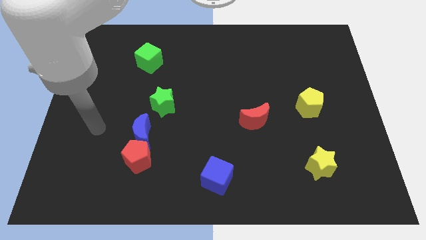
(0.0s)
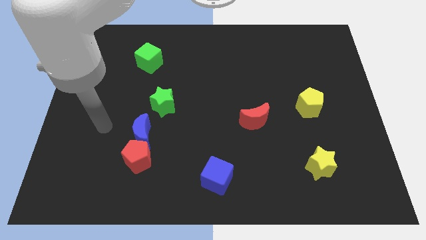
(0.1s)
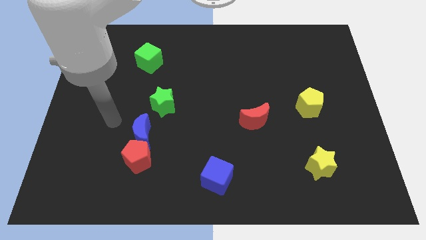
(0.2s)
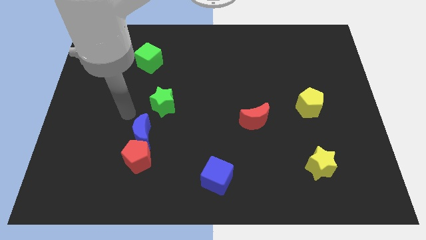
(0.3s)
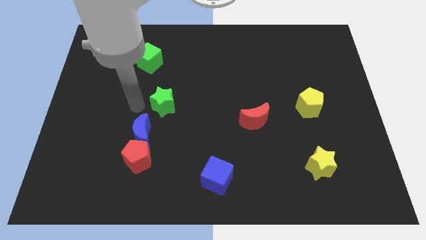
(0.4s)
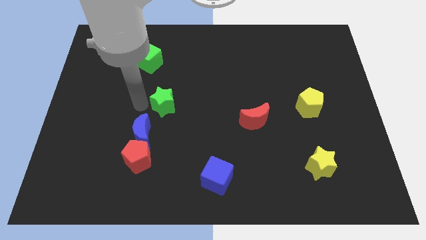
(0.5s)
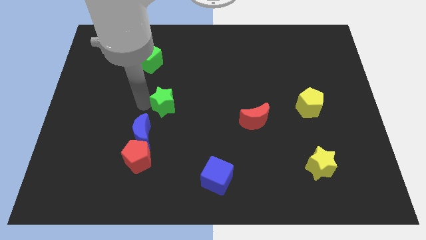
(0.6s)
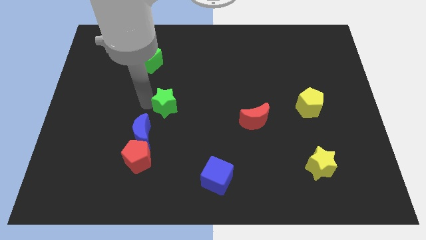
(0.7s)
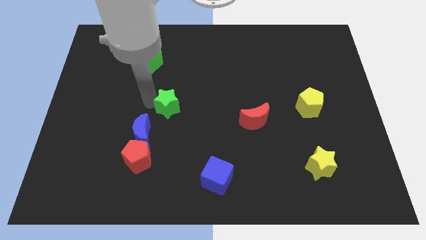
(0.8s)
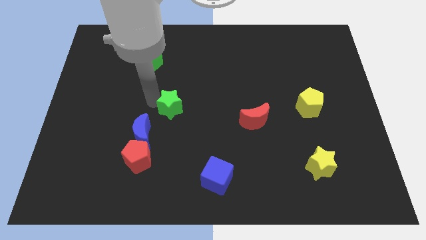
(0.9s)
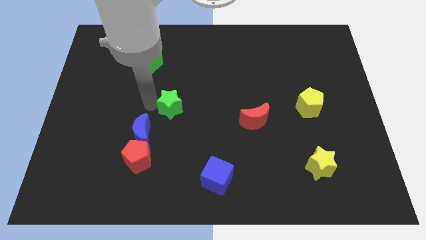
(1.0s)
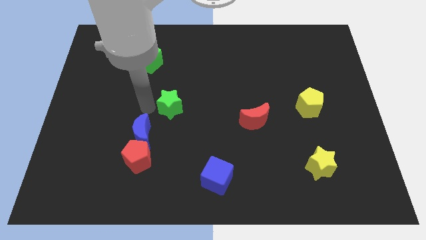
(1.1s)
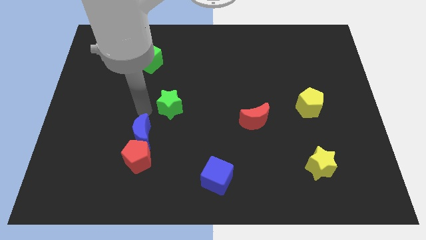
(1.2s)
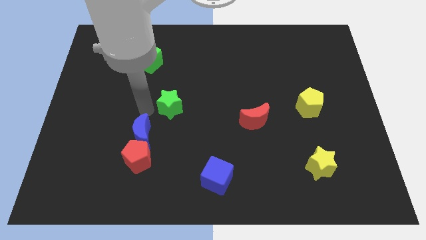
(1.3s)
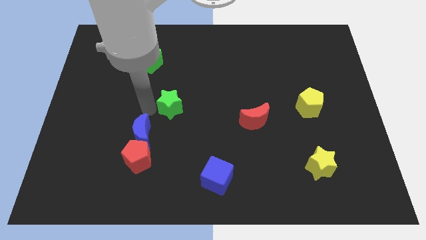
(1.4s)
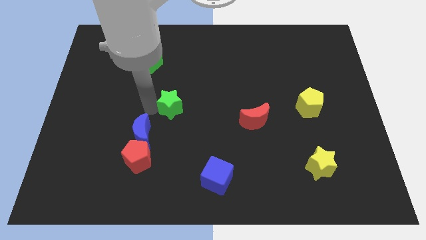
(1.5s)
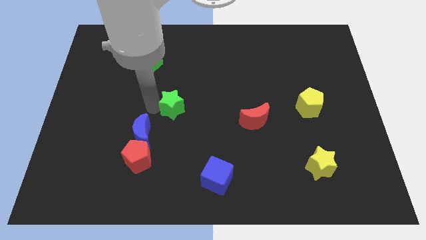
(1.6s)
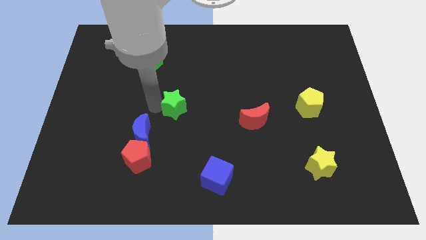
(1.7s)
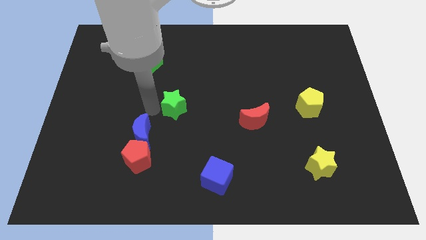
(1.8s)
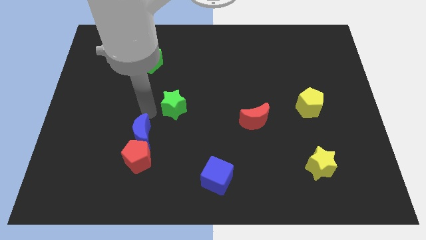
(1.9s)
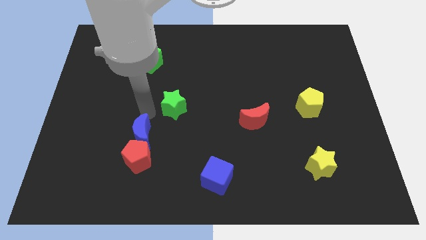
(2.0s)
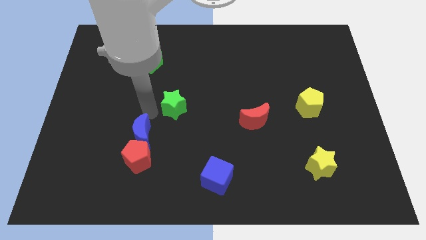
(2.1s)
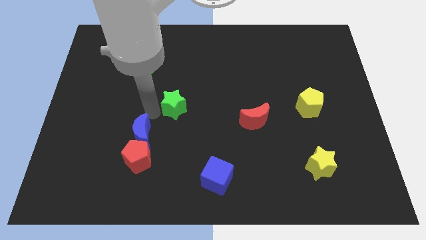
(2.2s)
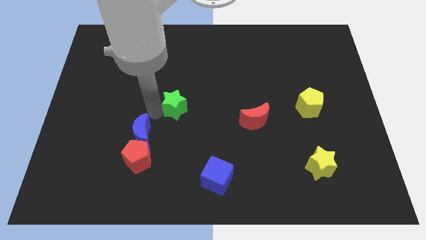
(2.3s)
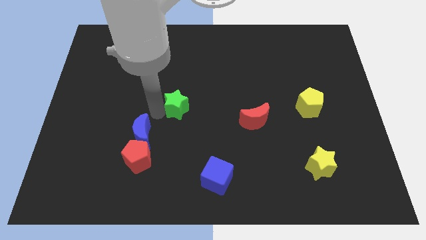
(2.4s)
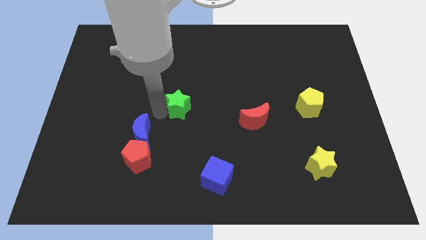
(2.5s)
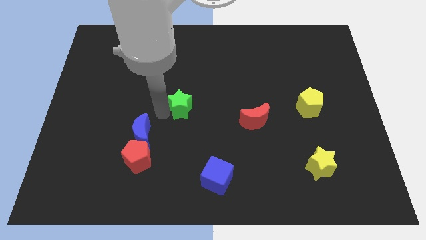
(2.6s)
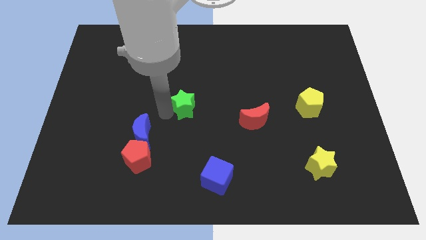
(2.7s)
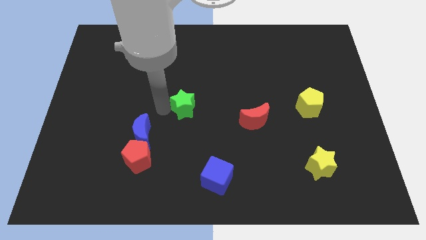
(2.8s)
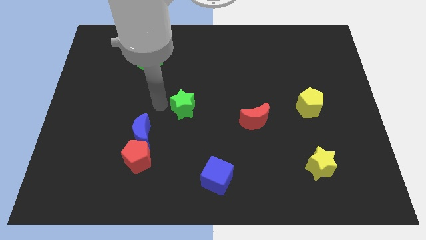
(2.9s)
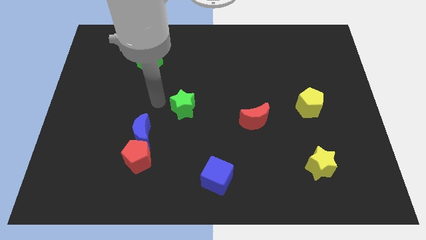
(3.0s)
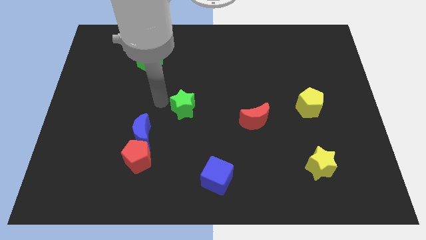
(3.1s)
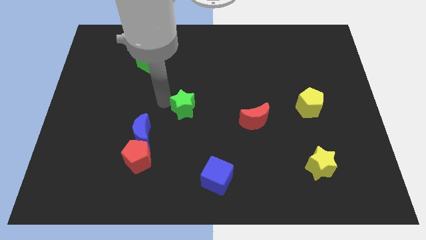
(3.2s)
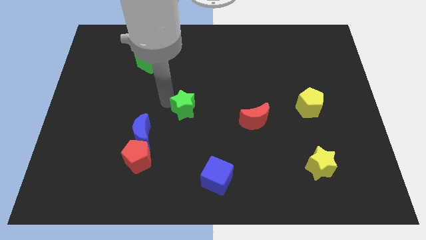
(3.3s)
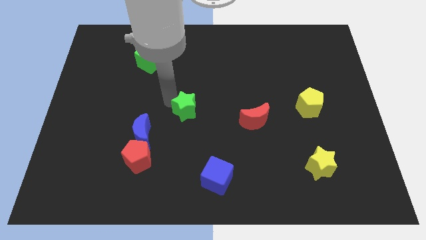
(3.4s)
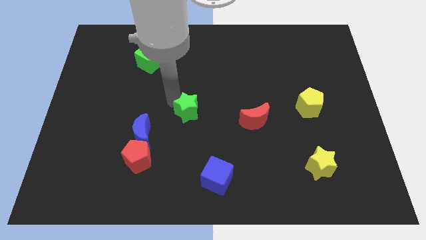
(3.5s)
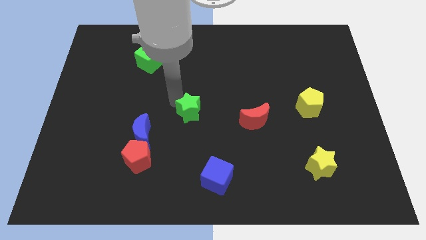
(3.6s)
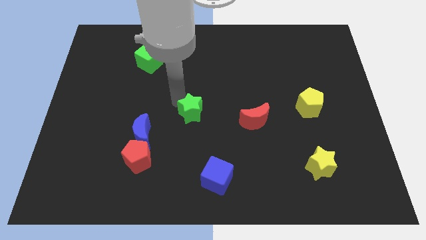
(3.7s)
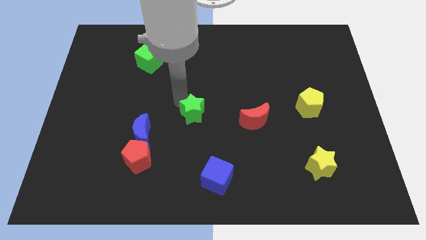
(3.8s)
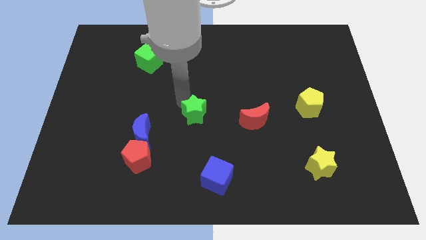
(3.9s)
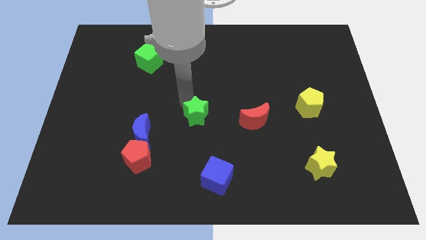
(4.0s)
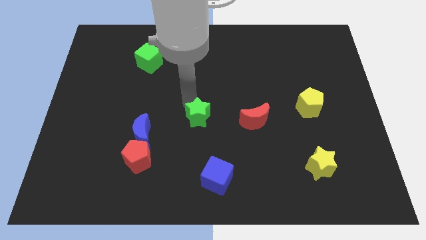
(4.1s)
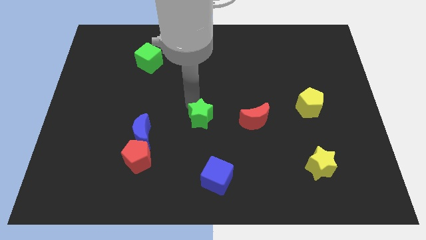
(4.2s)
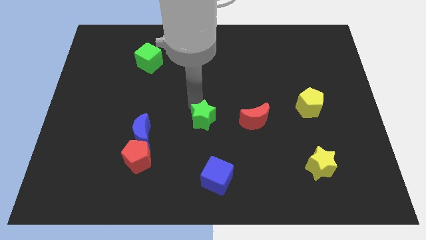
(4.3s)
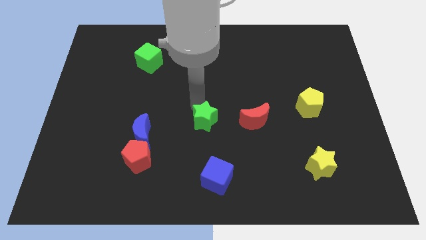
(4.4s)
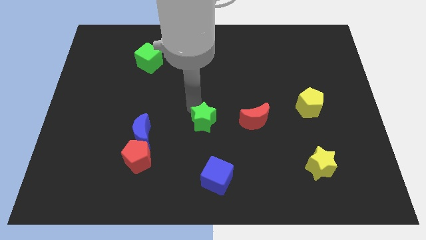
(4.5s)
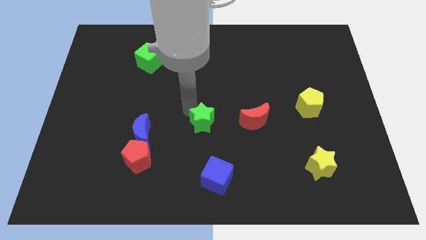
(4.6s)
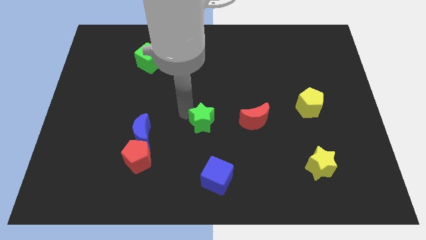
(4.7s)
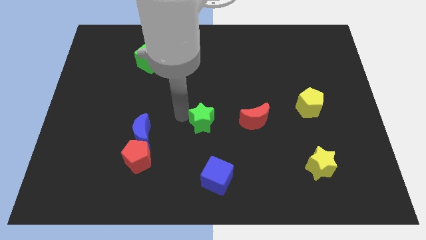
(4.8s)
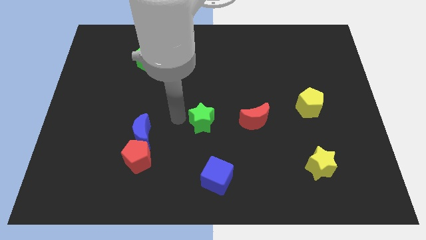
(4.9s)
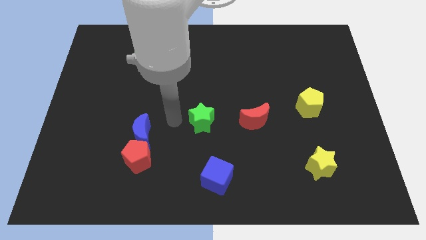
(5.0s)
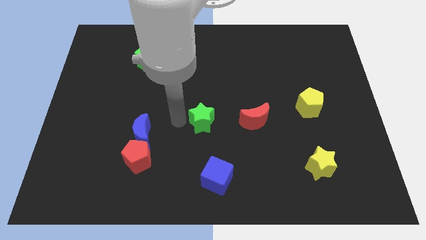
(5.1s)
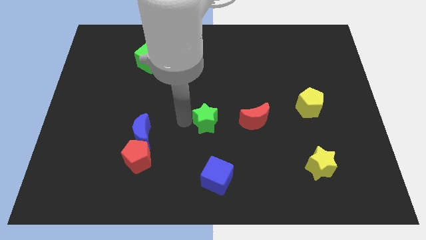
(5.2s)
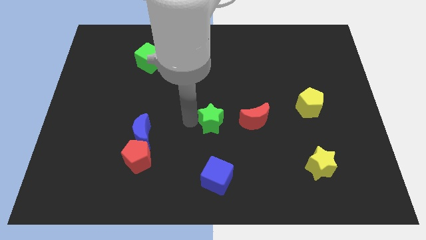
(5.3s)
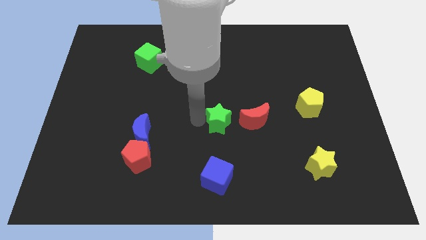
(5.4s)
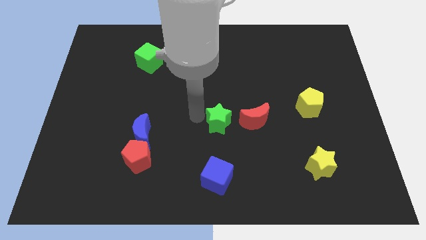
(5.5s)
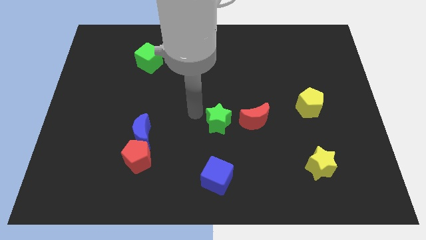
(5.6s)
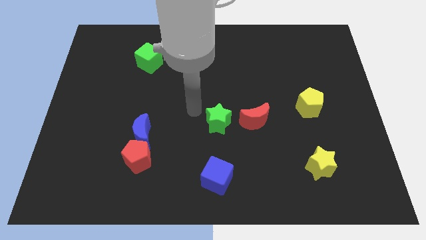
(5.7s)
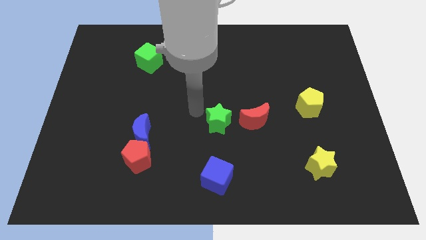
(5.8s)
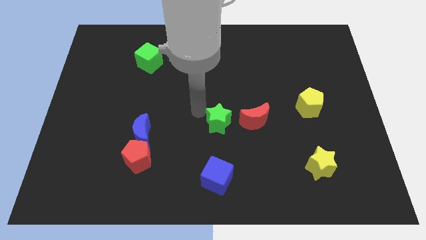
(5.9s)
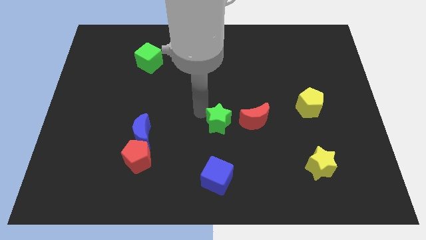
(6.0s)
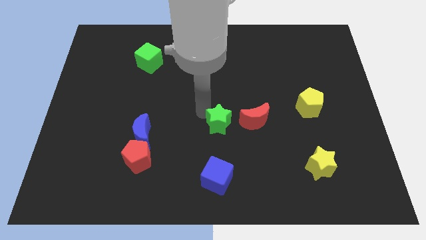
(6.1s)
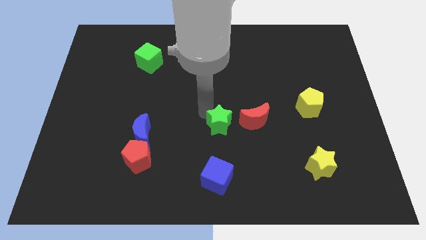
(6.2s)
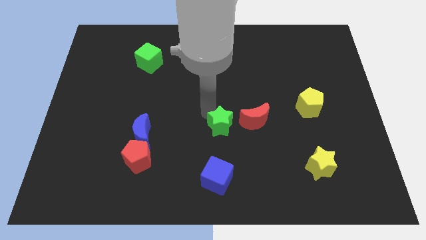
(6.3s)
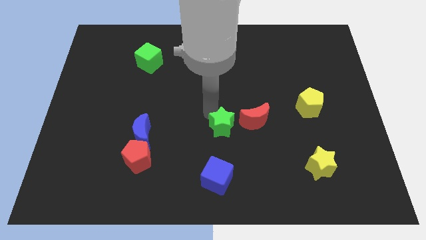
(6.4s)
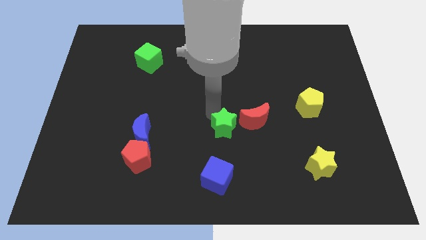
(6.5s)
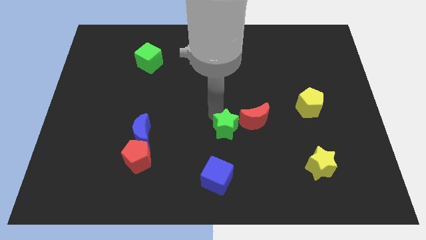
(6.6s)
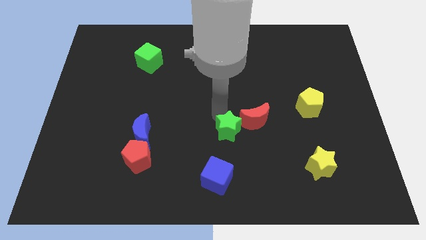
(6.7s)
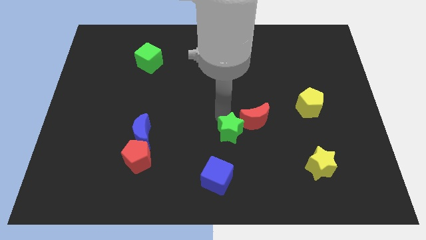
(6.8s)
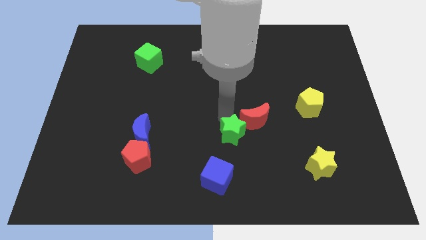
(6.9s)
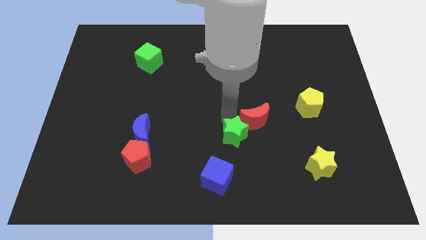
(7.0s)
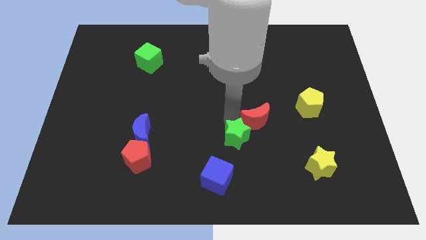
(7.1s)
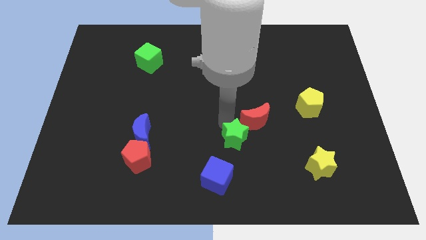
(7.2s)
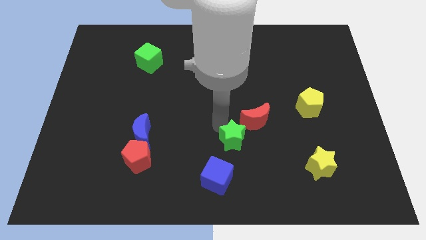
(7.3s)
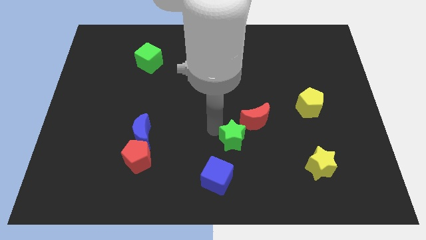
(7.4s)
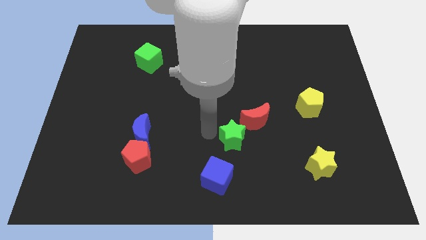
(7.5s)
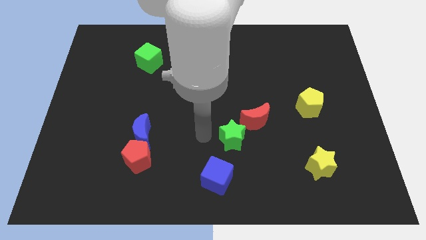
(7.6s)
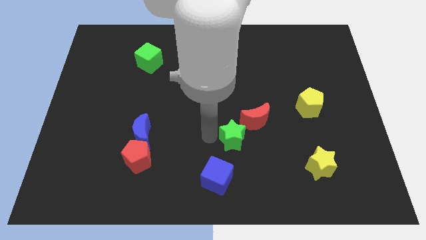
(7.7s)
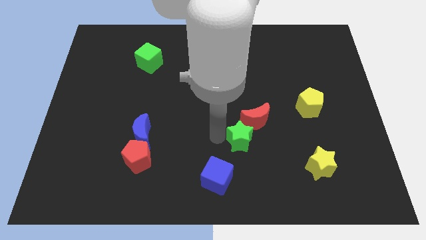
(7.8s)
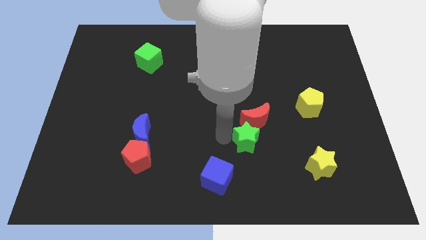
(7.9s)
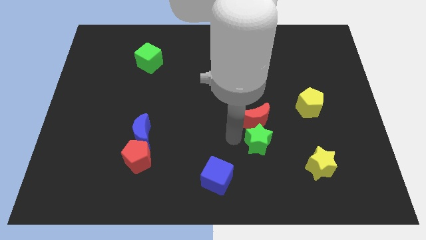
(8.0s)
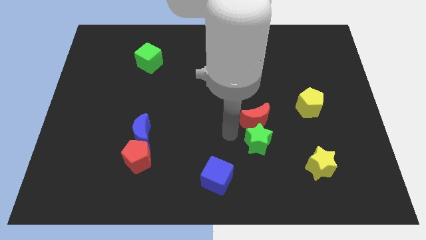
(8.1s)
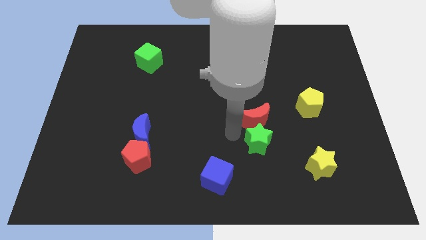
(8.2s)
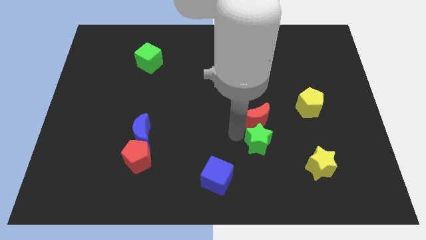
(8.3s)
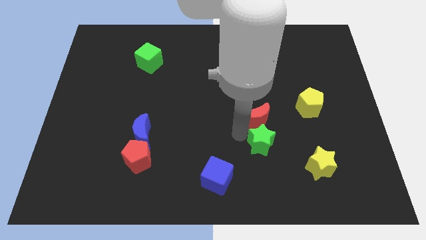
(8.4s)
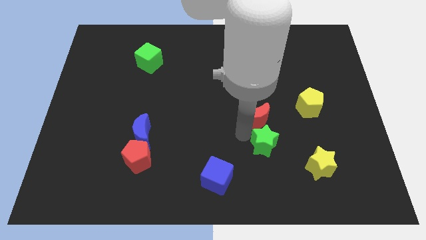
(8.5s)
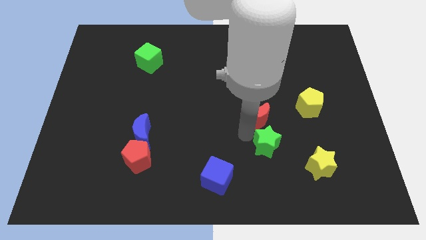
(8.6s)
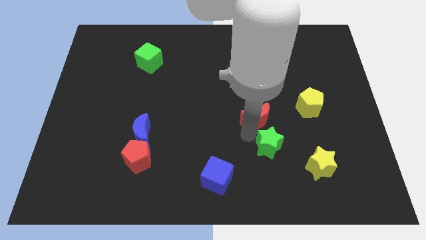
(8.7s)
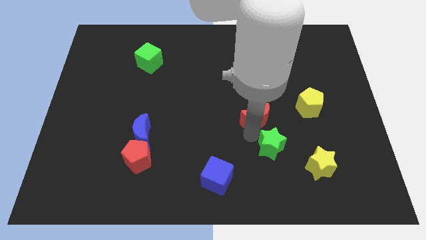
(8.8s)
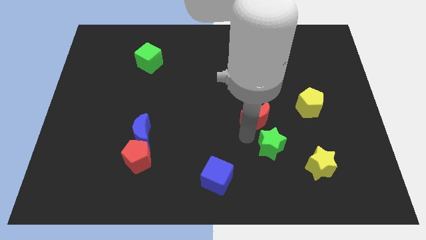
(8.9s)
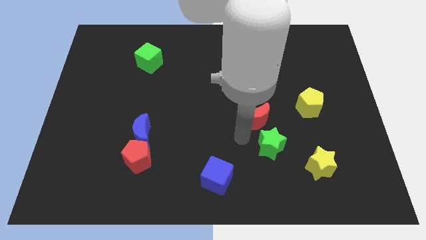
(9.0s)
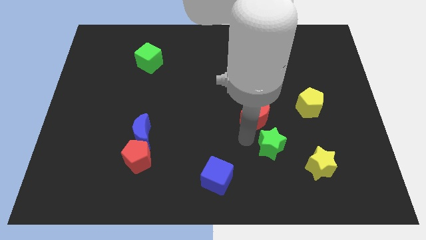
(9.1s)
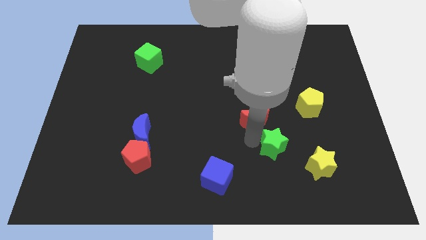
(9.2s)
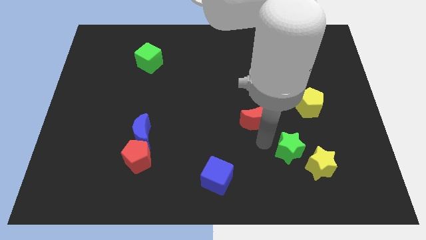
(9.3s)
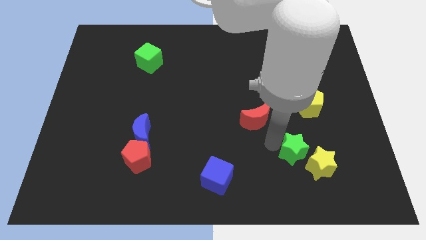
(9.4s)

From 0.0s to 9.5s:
push the green star to the yellow star
